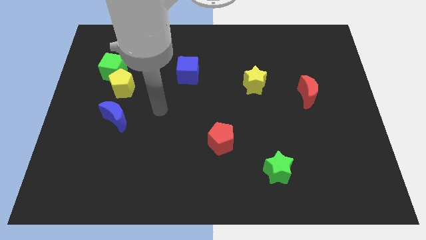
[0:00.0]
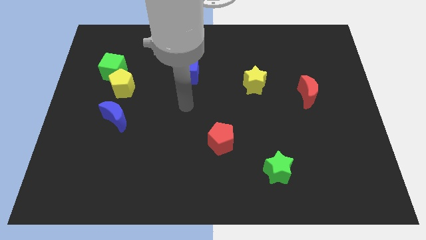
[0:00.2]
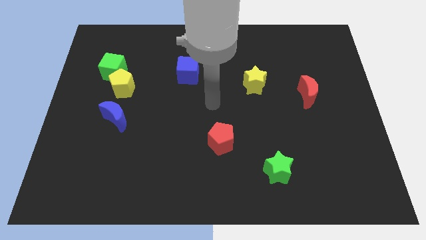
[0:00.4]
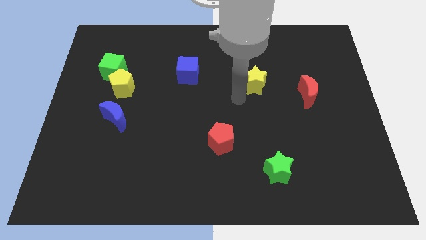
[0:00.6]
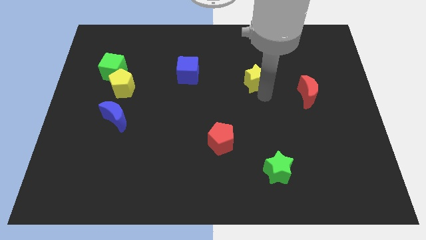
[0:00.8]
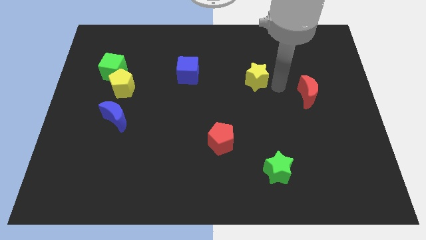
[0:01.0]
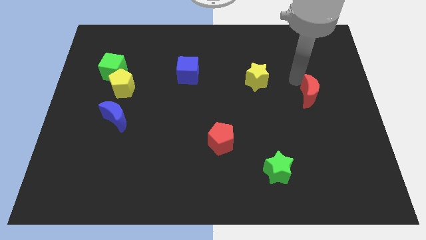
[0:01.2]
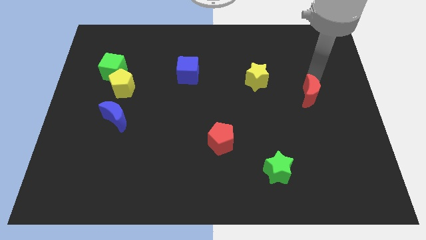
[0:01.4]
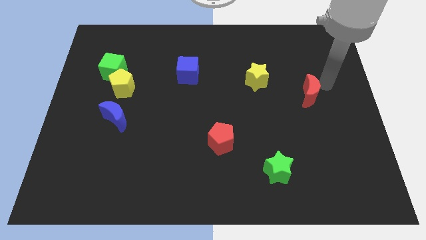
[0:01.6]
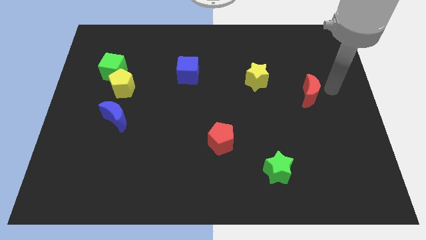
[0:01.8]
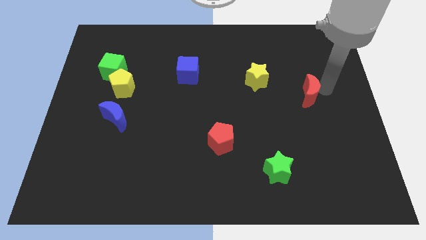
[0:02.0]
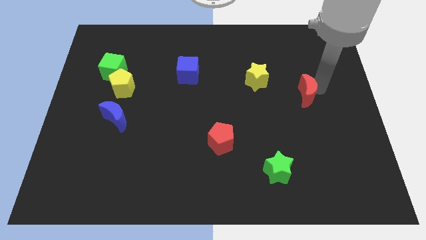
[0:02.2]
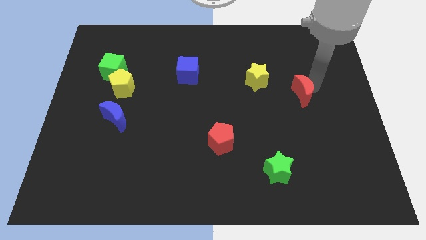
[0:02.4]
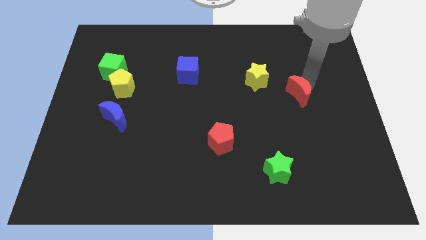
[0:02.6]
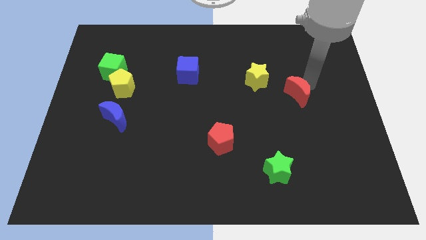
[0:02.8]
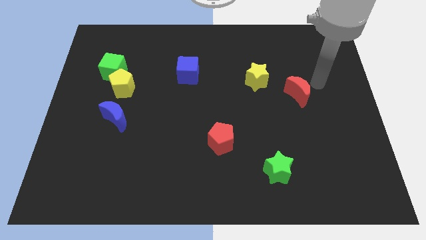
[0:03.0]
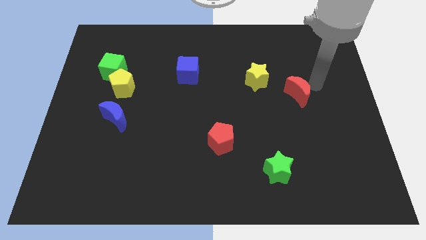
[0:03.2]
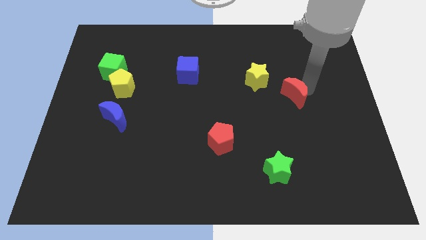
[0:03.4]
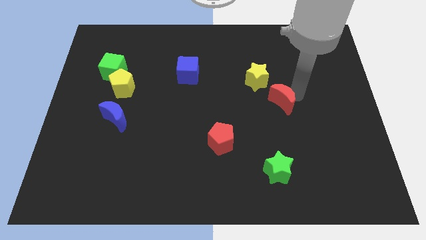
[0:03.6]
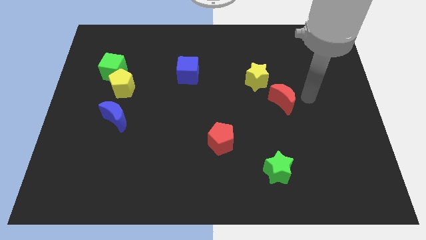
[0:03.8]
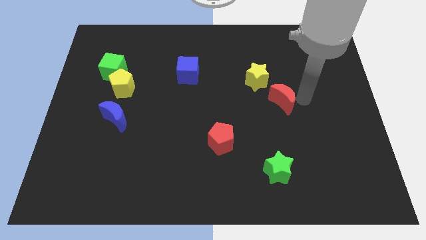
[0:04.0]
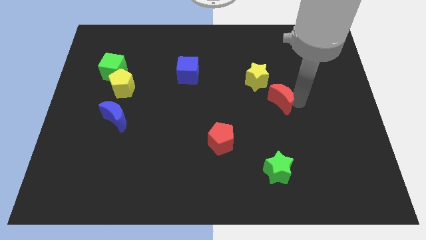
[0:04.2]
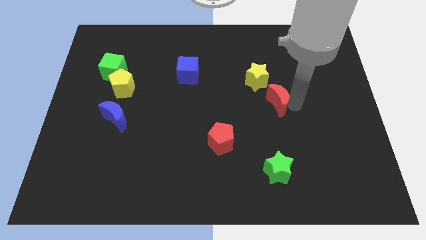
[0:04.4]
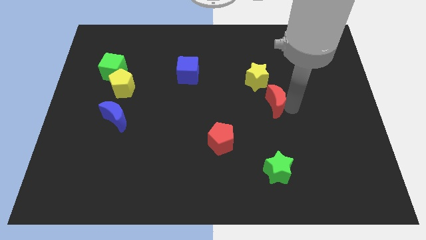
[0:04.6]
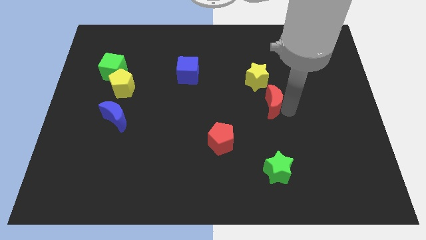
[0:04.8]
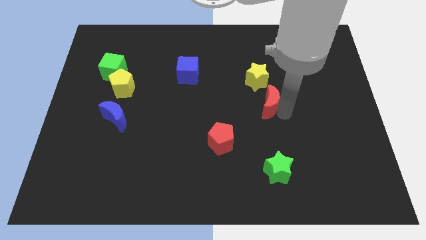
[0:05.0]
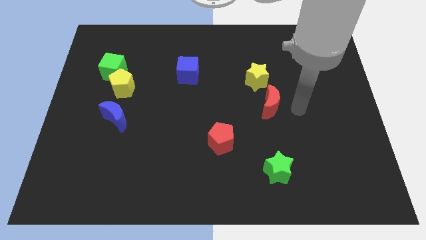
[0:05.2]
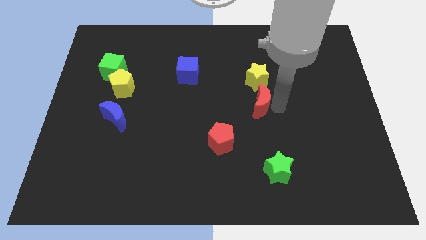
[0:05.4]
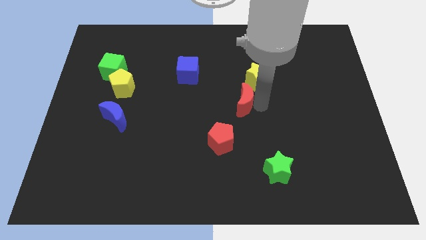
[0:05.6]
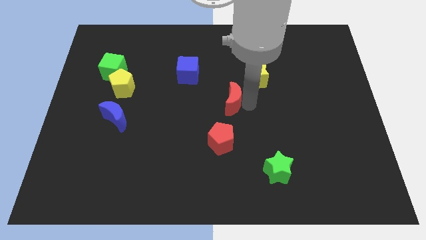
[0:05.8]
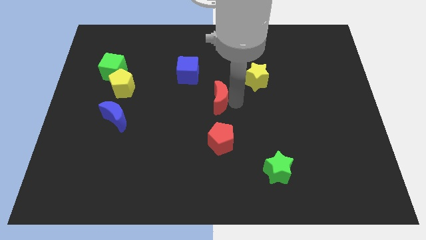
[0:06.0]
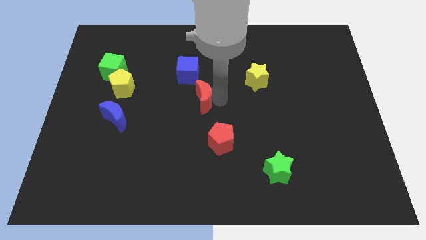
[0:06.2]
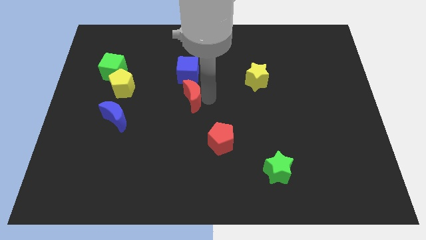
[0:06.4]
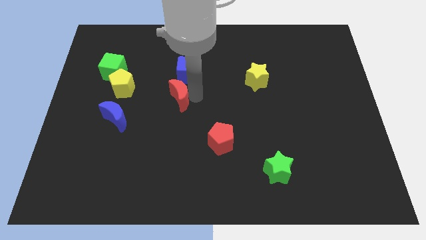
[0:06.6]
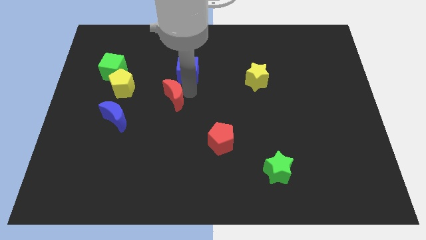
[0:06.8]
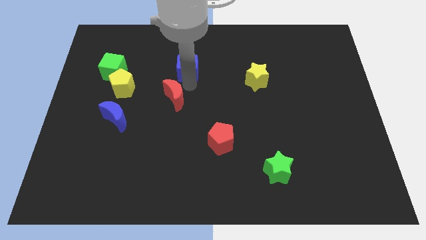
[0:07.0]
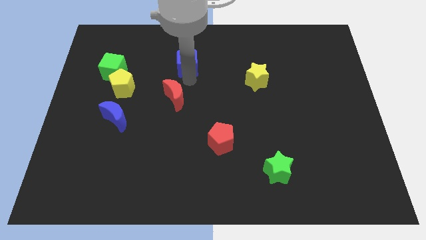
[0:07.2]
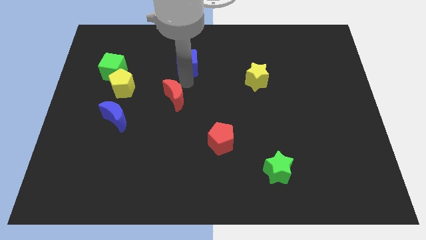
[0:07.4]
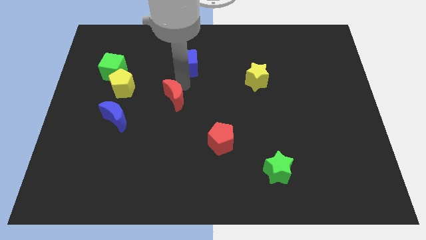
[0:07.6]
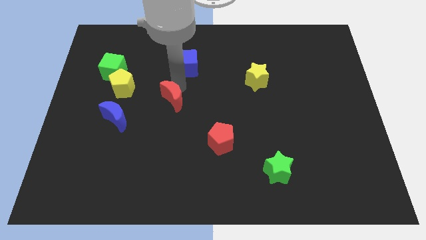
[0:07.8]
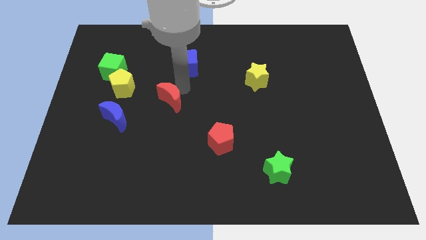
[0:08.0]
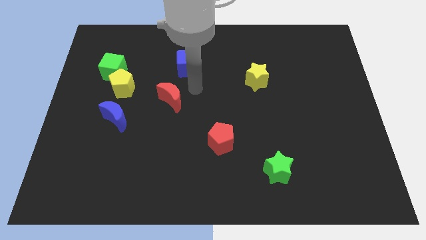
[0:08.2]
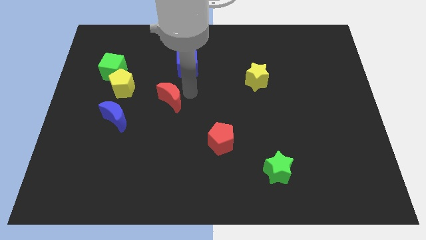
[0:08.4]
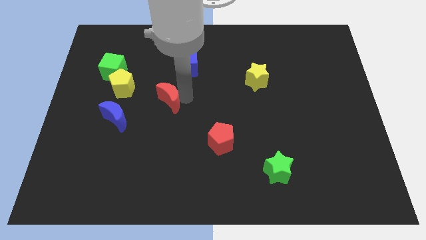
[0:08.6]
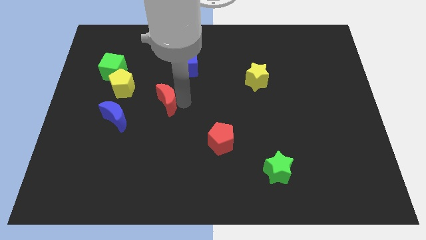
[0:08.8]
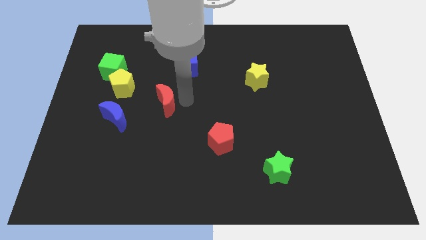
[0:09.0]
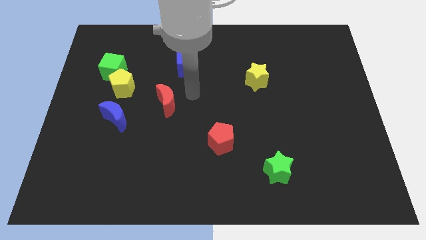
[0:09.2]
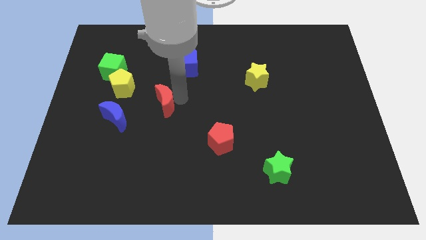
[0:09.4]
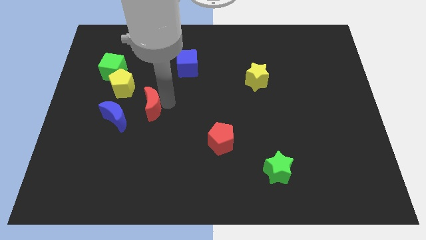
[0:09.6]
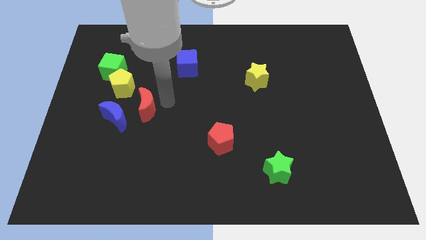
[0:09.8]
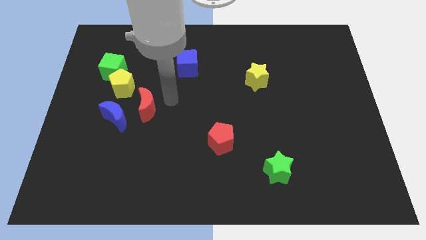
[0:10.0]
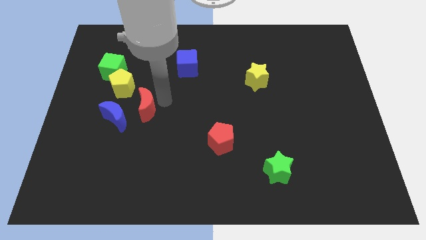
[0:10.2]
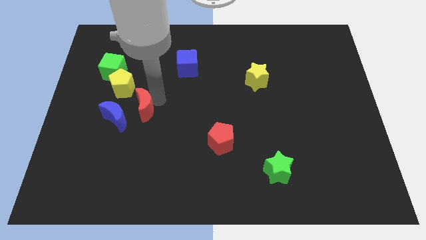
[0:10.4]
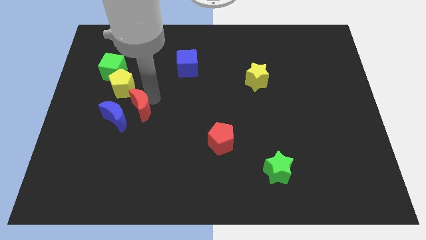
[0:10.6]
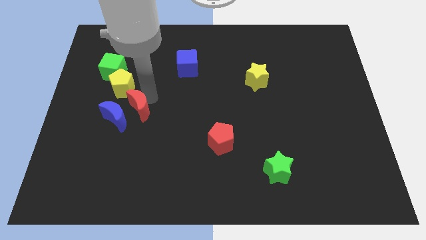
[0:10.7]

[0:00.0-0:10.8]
push the red moon next to the blue moon

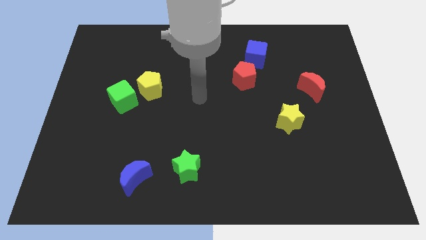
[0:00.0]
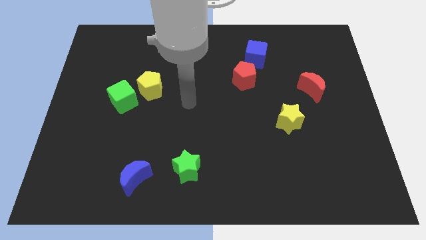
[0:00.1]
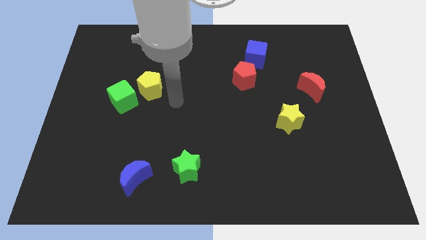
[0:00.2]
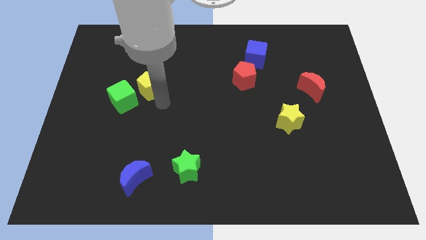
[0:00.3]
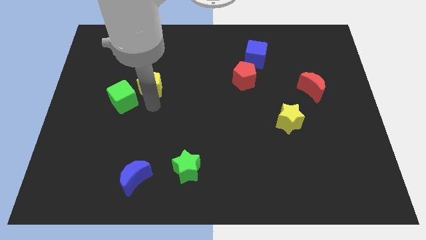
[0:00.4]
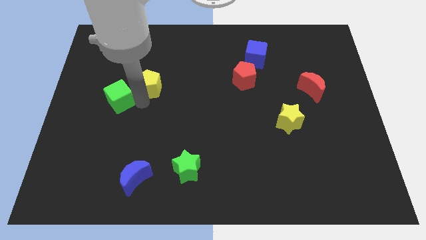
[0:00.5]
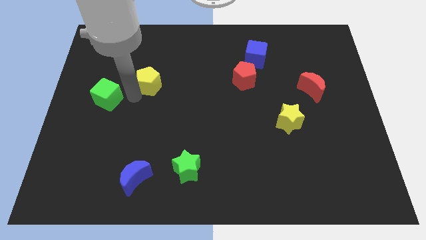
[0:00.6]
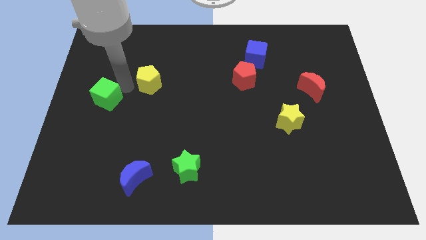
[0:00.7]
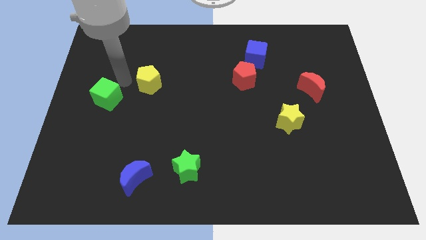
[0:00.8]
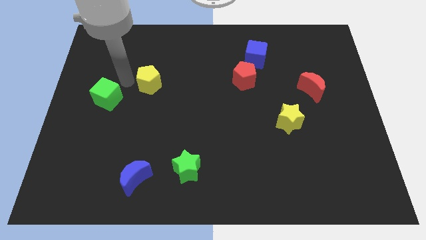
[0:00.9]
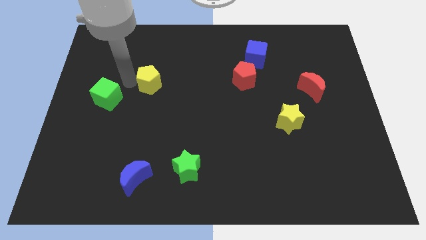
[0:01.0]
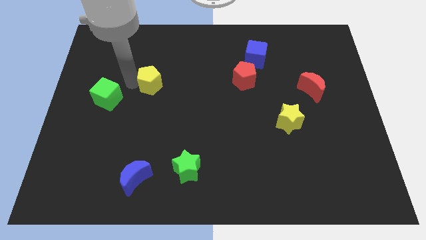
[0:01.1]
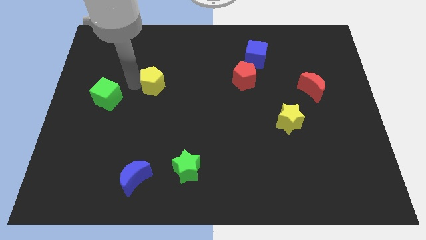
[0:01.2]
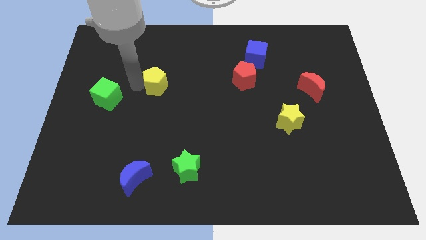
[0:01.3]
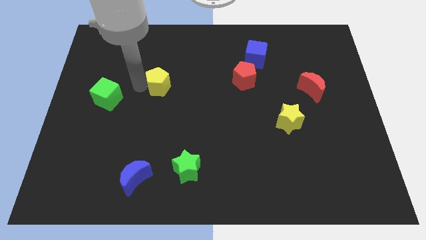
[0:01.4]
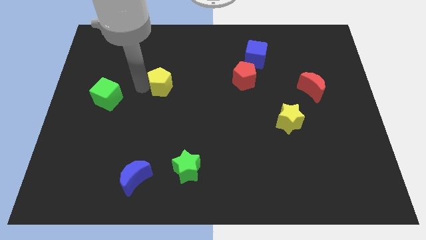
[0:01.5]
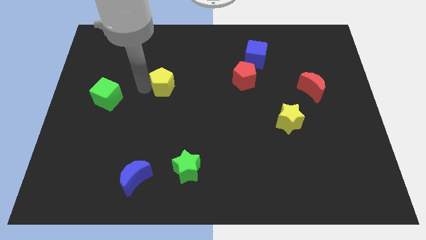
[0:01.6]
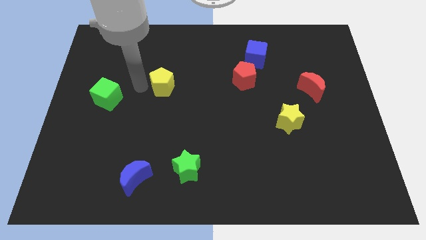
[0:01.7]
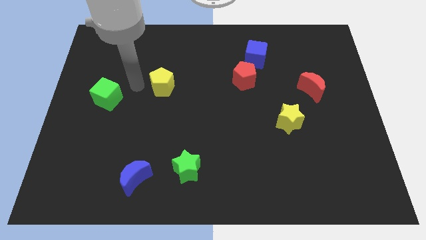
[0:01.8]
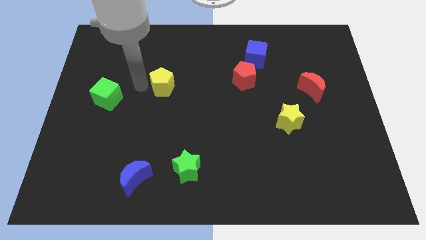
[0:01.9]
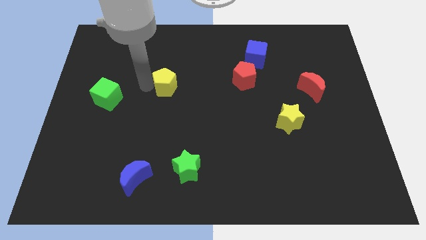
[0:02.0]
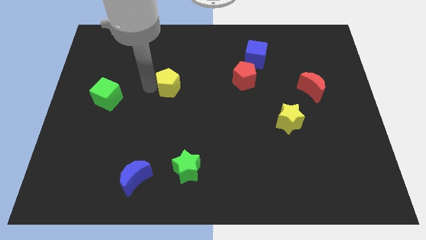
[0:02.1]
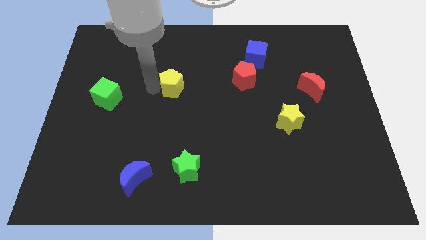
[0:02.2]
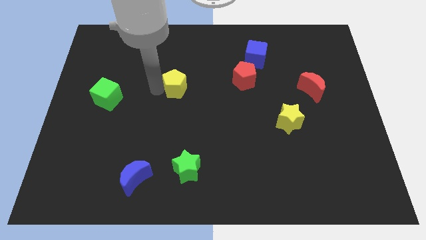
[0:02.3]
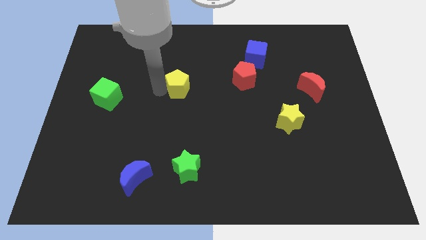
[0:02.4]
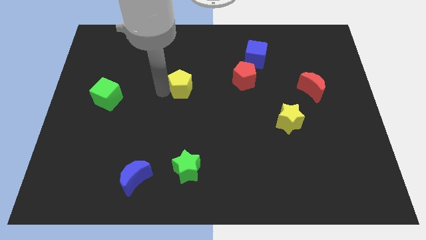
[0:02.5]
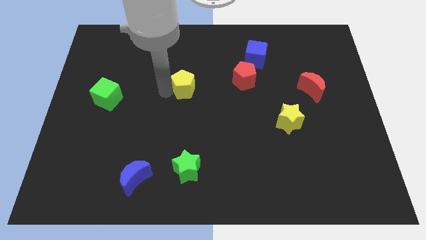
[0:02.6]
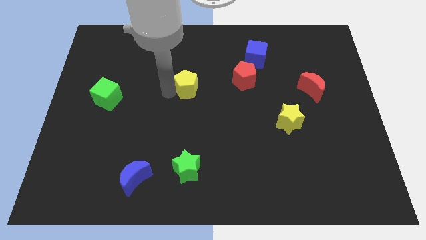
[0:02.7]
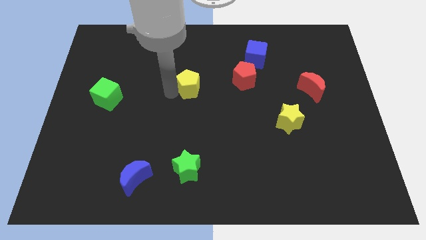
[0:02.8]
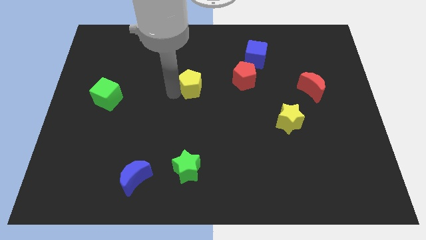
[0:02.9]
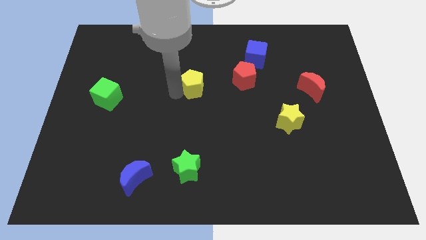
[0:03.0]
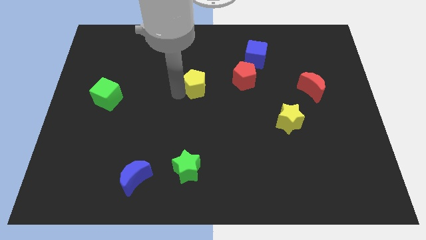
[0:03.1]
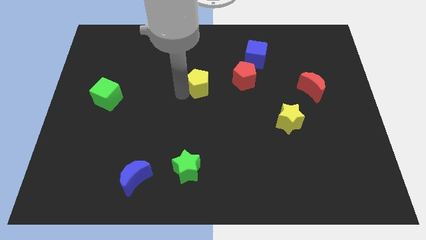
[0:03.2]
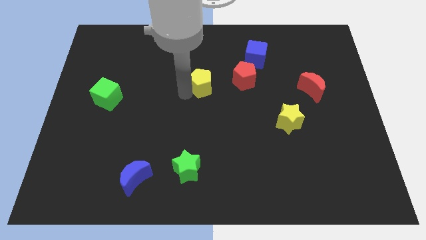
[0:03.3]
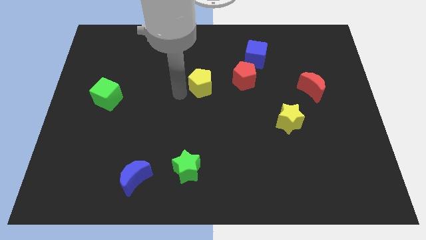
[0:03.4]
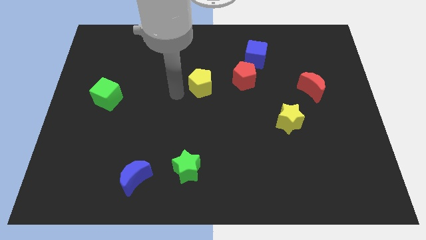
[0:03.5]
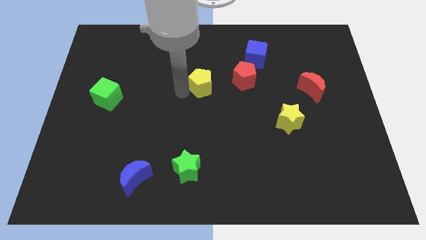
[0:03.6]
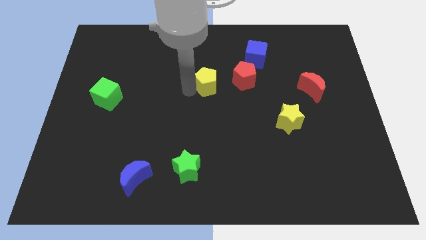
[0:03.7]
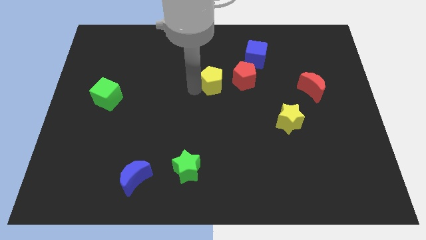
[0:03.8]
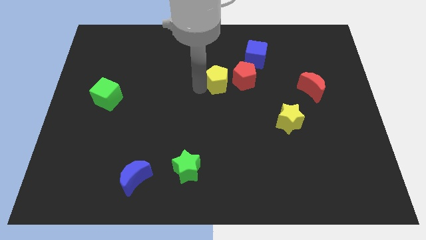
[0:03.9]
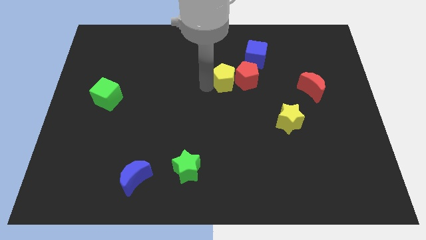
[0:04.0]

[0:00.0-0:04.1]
move the yellow pentagon to the red pentagon
